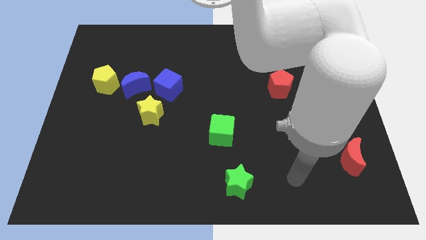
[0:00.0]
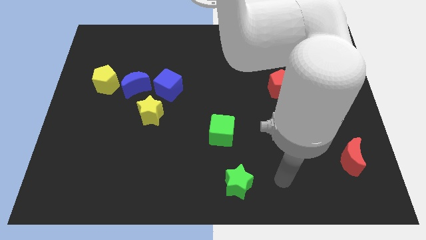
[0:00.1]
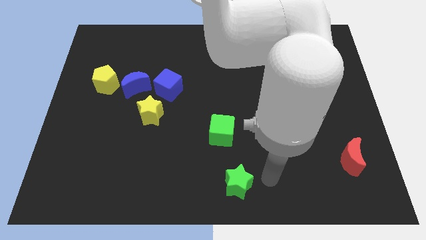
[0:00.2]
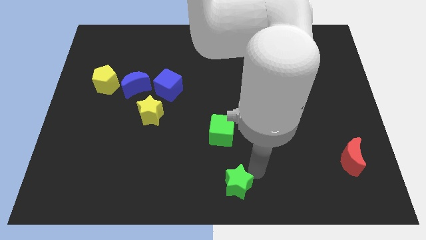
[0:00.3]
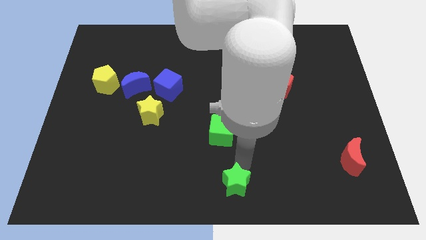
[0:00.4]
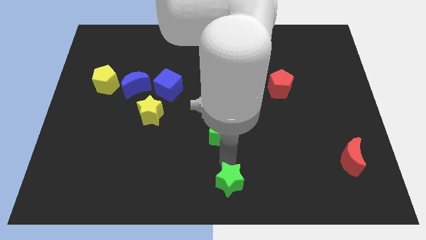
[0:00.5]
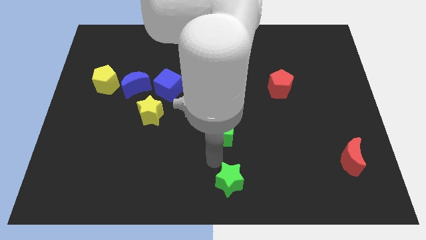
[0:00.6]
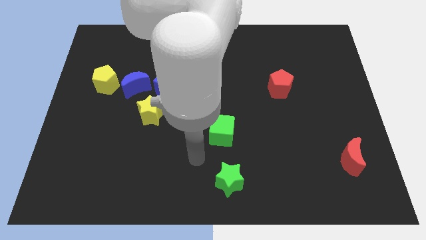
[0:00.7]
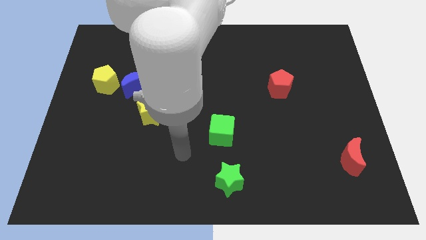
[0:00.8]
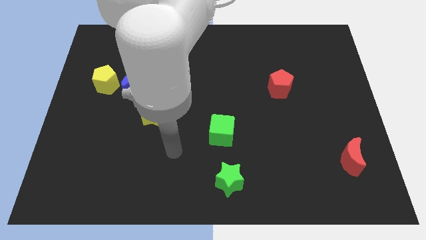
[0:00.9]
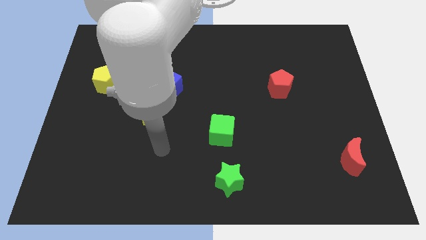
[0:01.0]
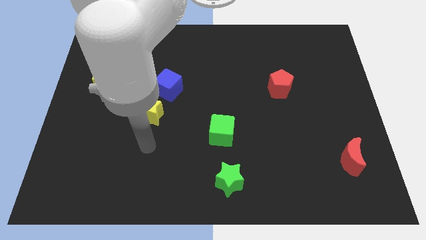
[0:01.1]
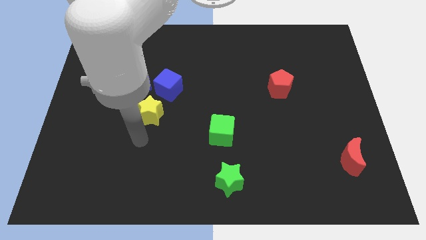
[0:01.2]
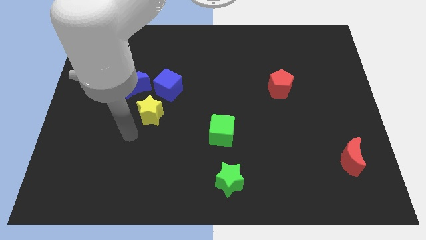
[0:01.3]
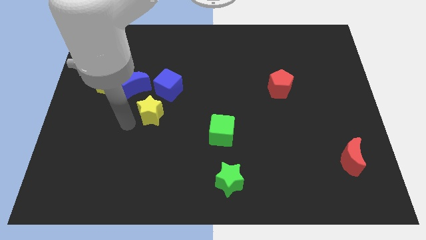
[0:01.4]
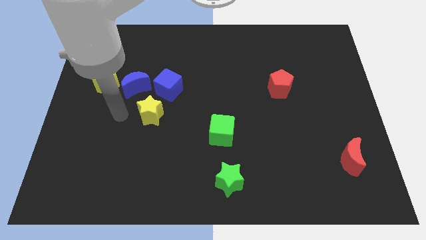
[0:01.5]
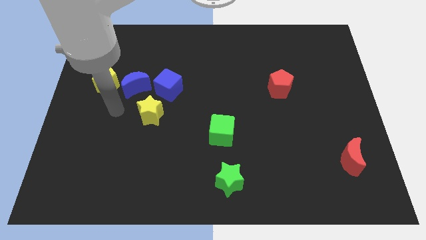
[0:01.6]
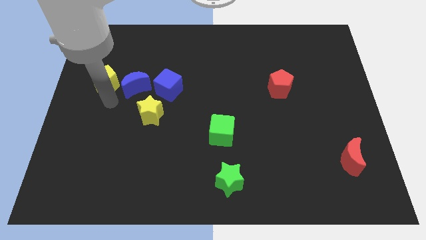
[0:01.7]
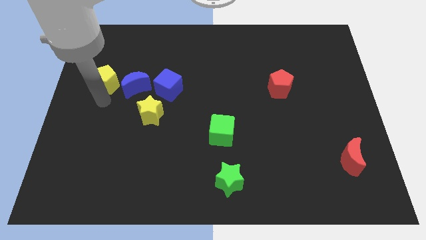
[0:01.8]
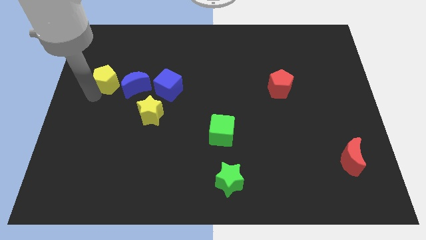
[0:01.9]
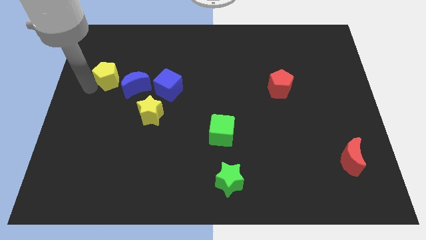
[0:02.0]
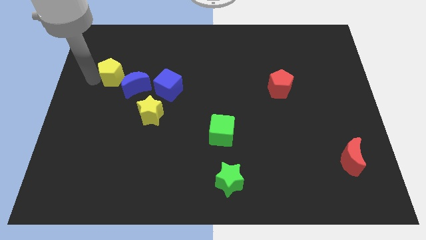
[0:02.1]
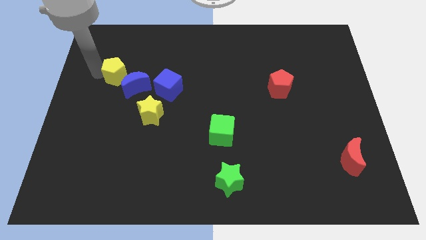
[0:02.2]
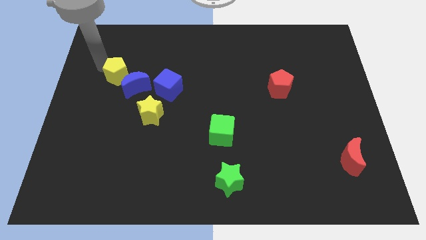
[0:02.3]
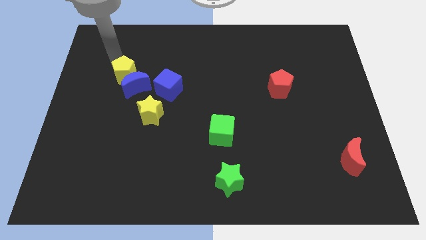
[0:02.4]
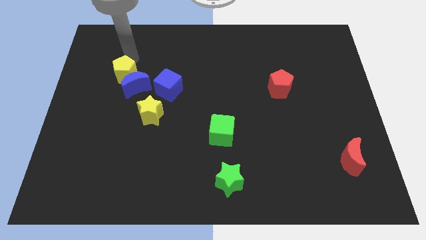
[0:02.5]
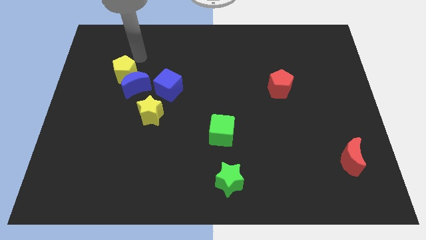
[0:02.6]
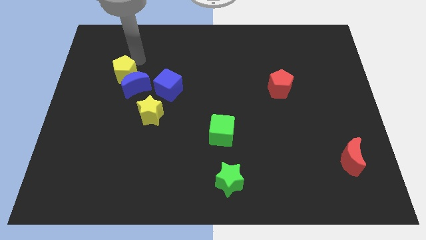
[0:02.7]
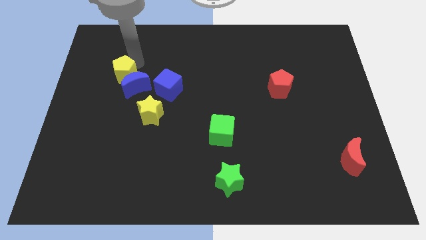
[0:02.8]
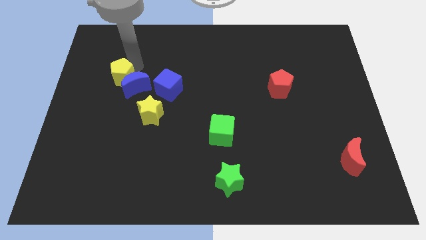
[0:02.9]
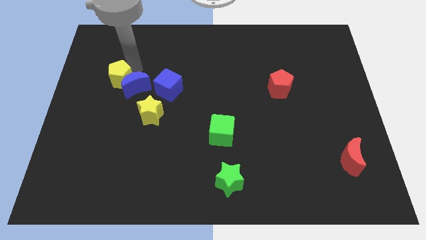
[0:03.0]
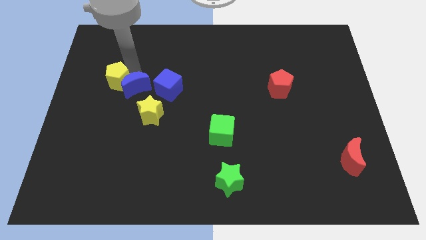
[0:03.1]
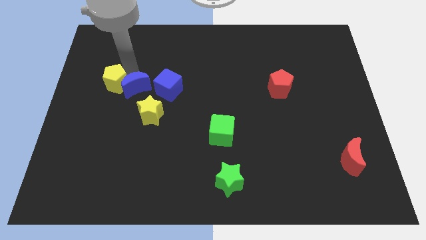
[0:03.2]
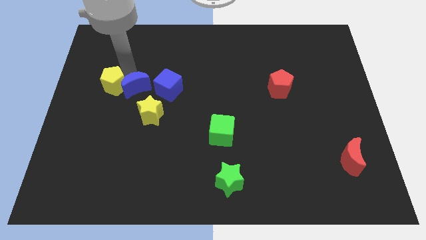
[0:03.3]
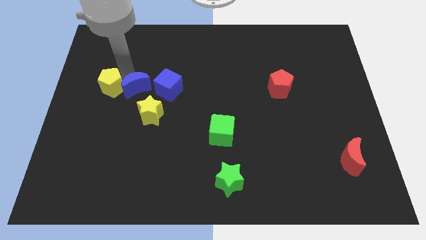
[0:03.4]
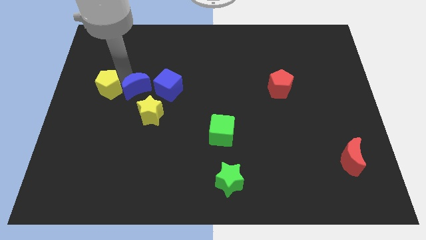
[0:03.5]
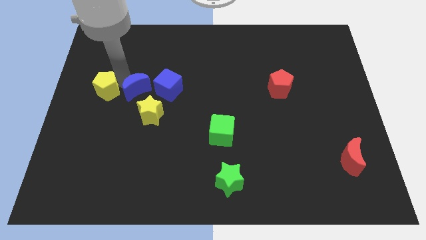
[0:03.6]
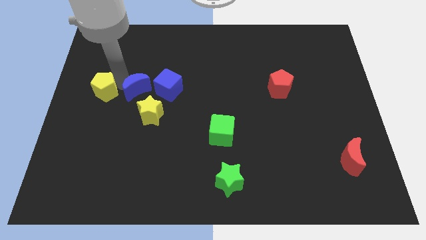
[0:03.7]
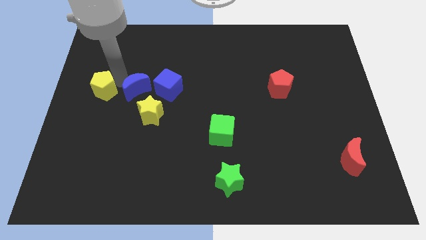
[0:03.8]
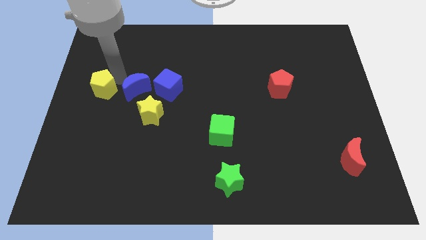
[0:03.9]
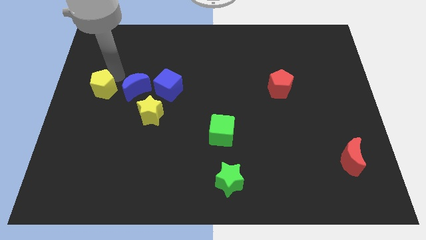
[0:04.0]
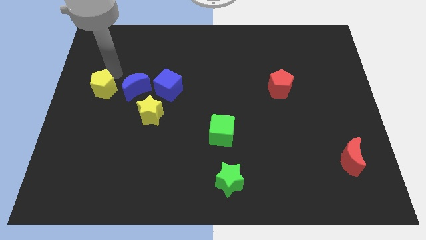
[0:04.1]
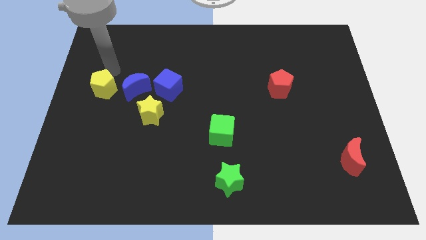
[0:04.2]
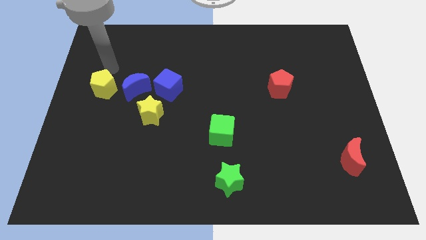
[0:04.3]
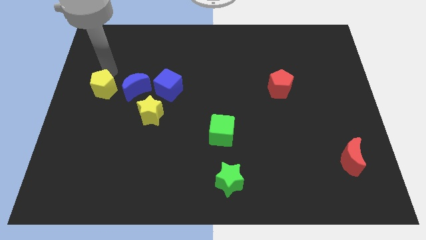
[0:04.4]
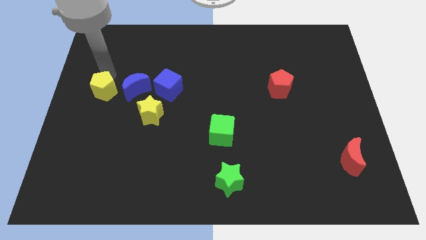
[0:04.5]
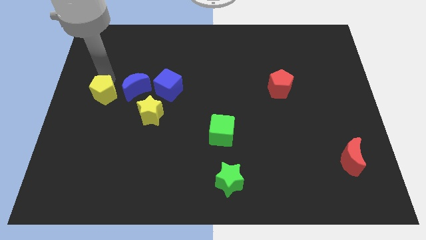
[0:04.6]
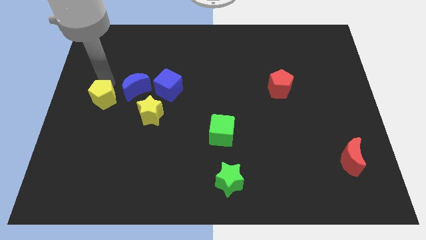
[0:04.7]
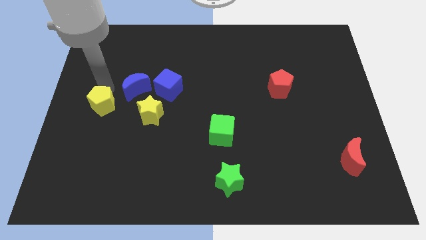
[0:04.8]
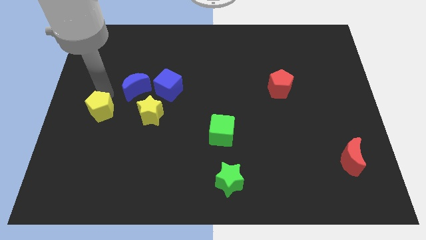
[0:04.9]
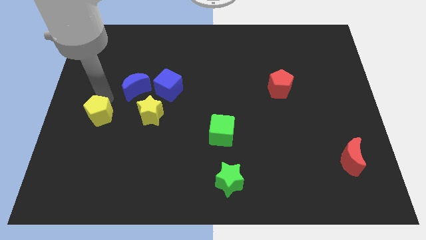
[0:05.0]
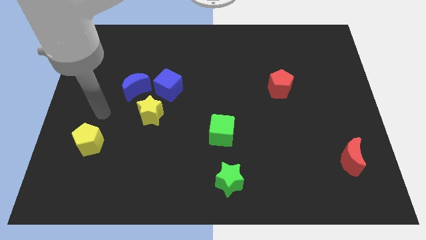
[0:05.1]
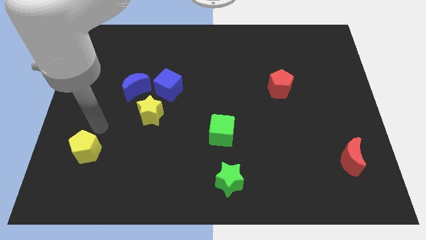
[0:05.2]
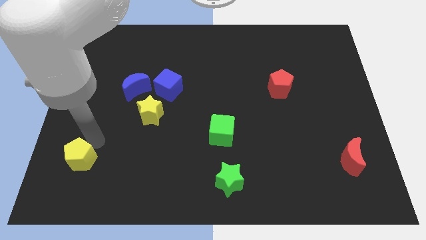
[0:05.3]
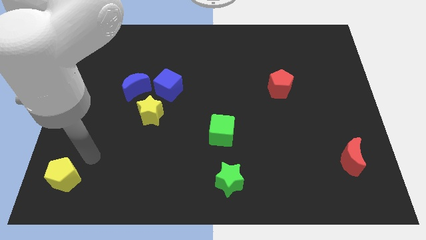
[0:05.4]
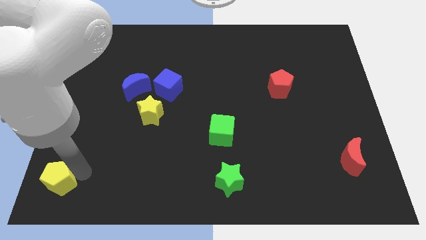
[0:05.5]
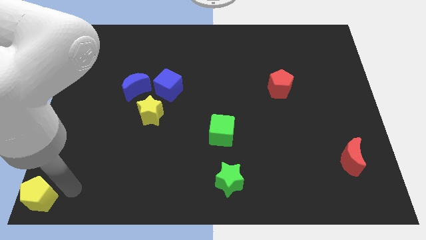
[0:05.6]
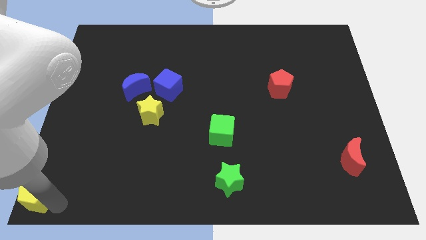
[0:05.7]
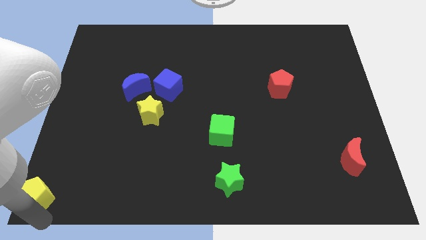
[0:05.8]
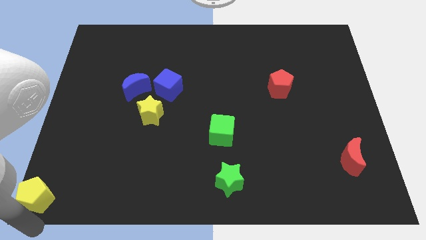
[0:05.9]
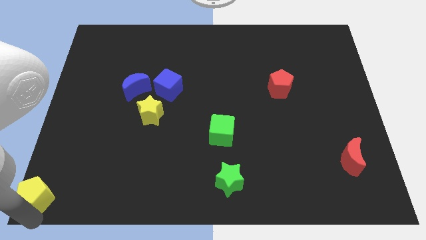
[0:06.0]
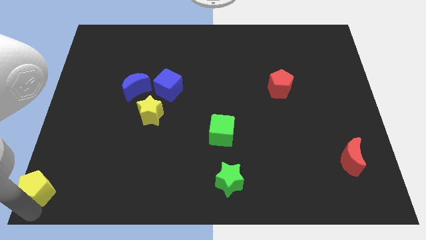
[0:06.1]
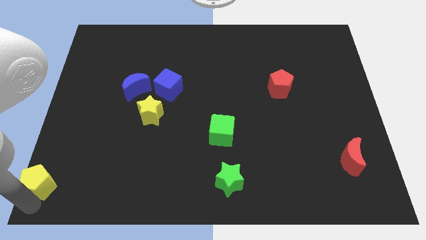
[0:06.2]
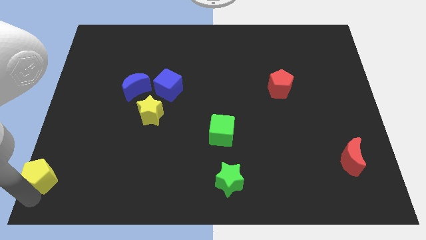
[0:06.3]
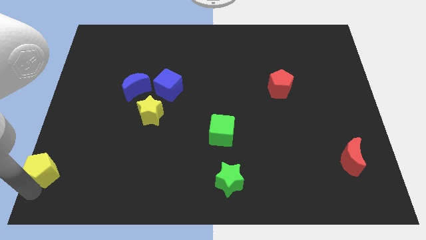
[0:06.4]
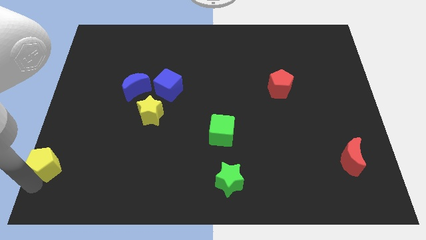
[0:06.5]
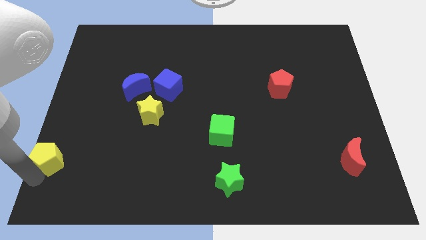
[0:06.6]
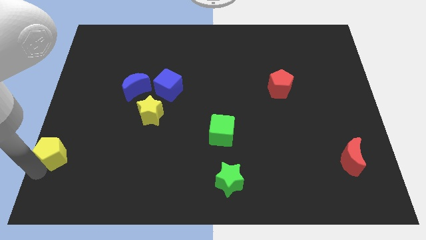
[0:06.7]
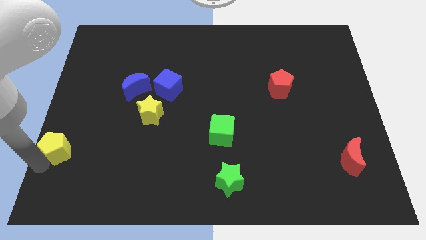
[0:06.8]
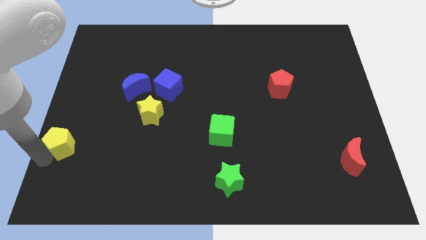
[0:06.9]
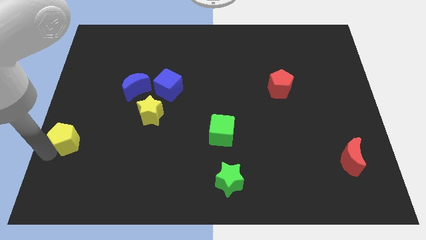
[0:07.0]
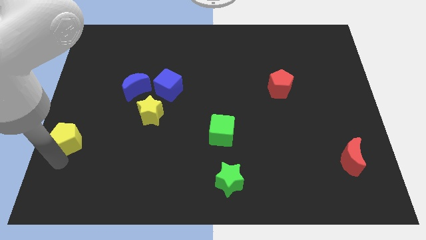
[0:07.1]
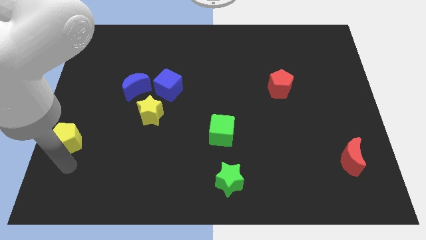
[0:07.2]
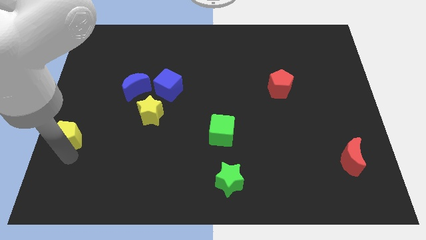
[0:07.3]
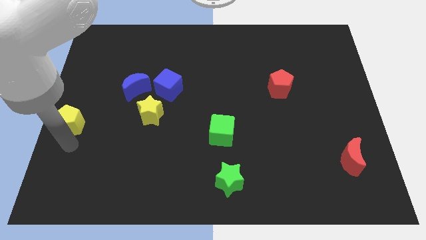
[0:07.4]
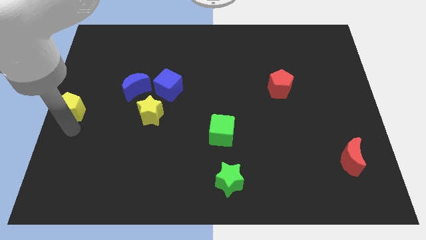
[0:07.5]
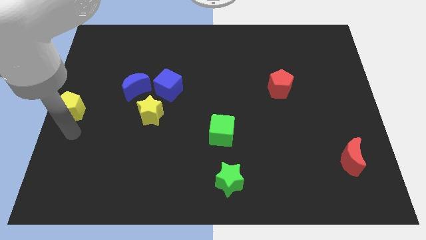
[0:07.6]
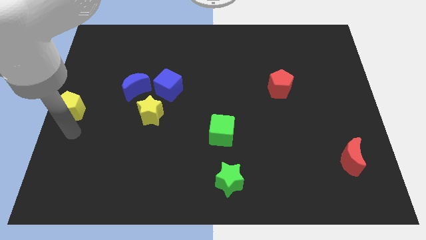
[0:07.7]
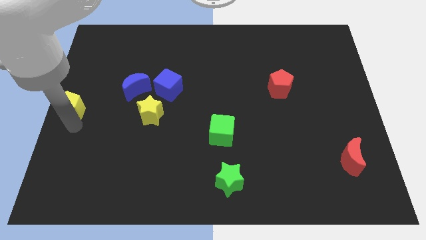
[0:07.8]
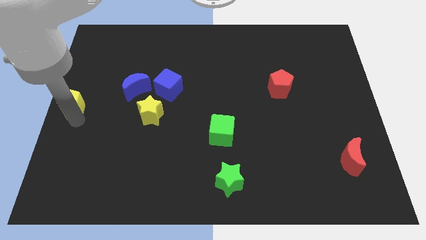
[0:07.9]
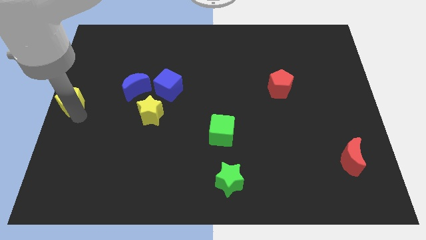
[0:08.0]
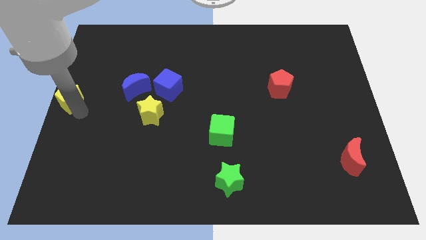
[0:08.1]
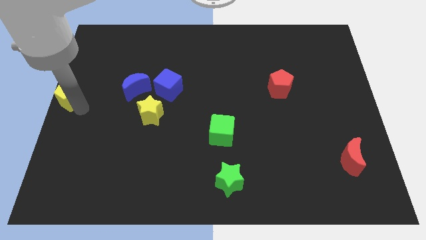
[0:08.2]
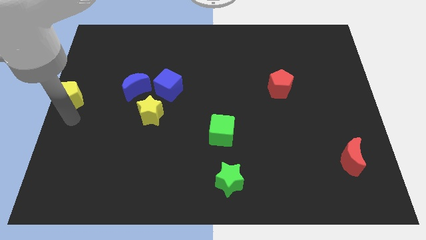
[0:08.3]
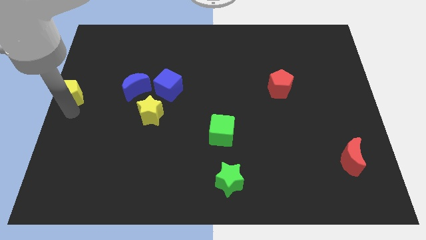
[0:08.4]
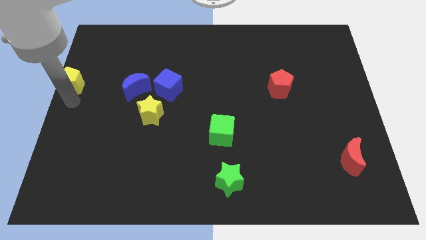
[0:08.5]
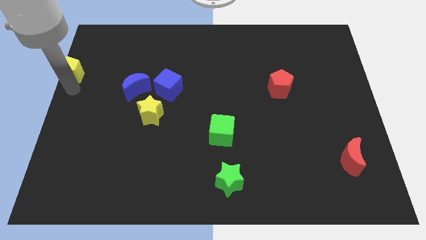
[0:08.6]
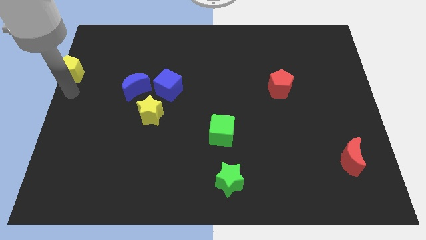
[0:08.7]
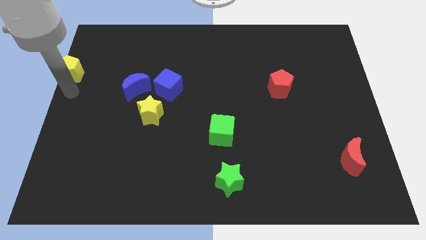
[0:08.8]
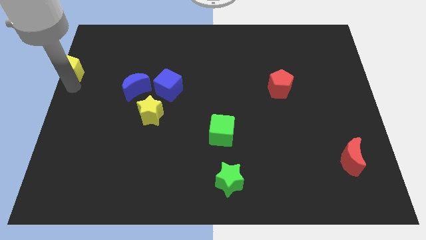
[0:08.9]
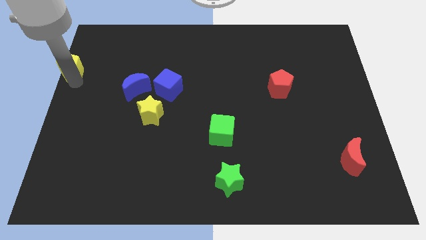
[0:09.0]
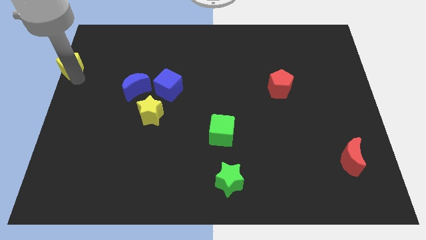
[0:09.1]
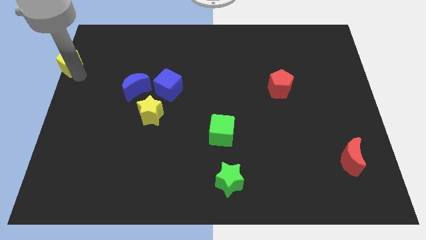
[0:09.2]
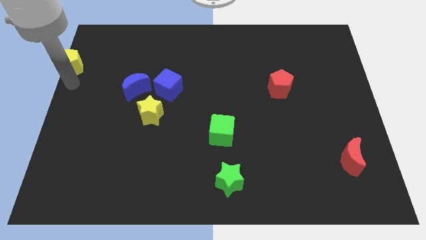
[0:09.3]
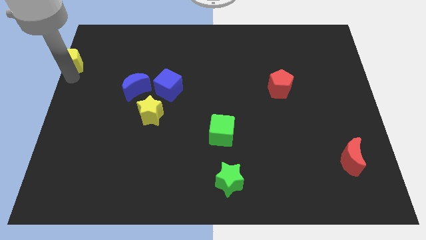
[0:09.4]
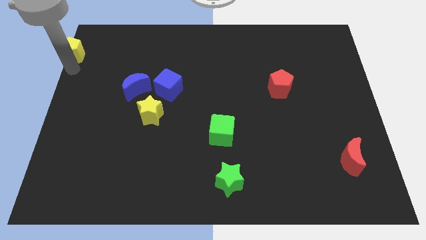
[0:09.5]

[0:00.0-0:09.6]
slide the yellow pentagon to the top left corner
